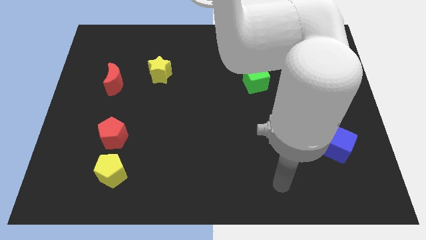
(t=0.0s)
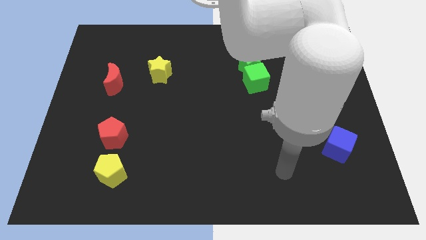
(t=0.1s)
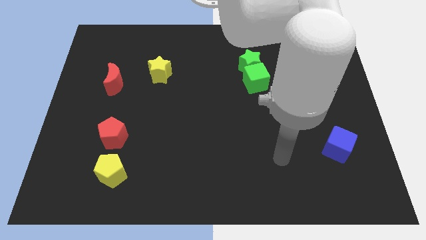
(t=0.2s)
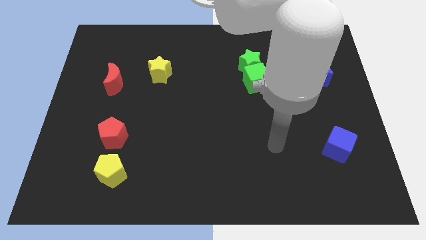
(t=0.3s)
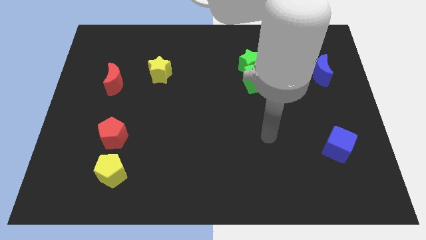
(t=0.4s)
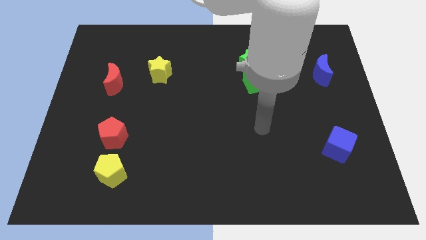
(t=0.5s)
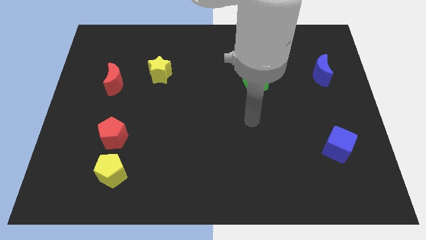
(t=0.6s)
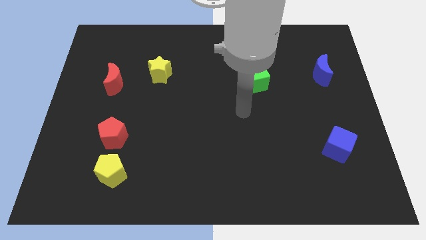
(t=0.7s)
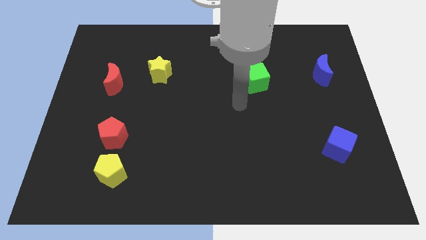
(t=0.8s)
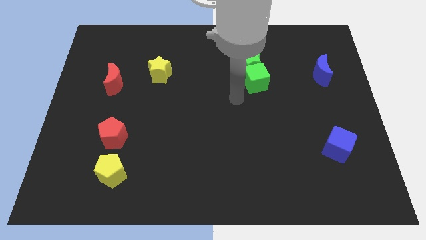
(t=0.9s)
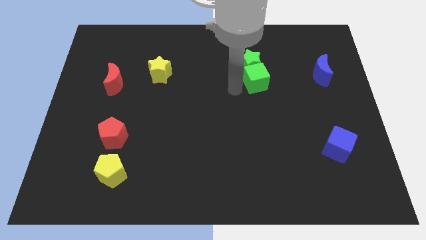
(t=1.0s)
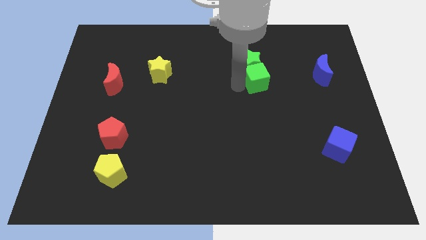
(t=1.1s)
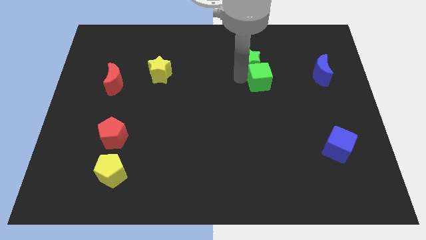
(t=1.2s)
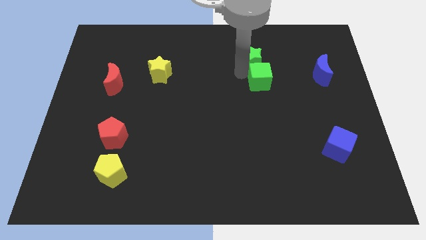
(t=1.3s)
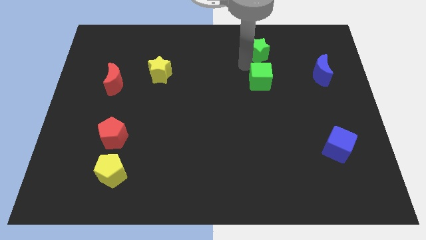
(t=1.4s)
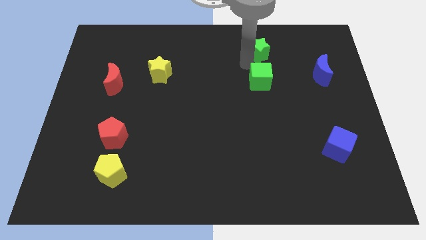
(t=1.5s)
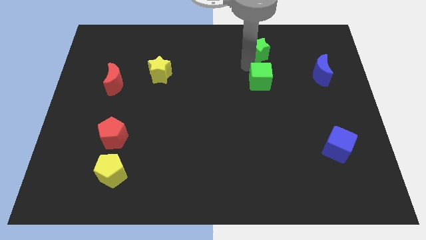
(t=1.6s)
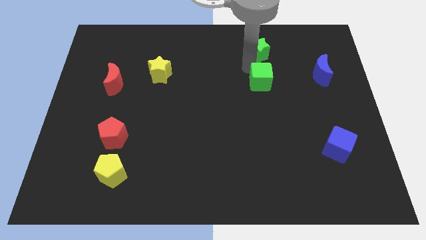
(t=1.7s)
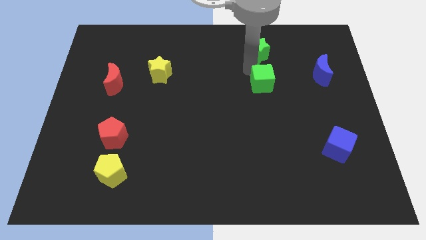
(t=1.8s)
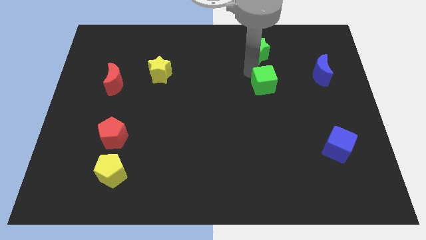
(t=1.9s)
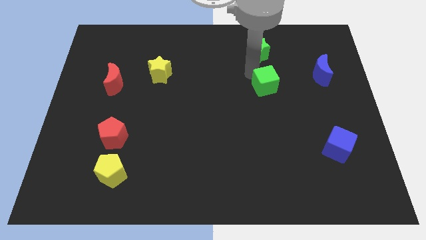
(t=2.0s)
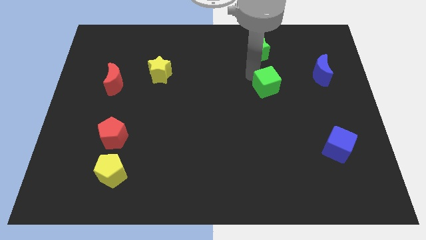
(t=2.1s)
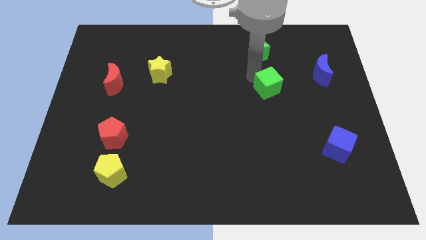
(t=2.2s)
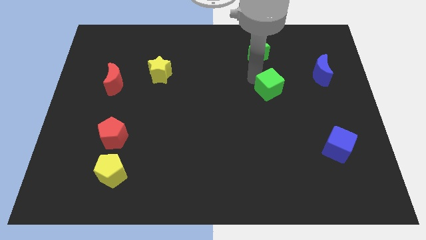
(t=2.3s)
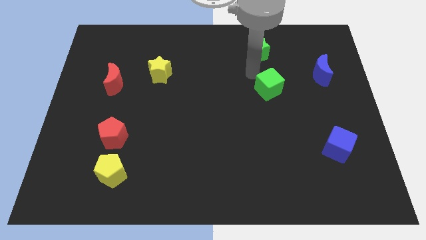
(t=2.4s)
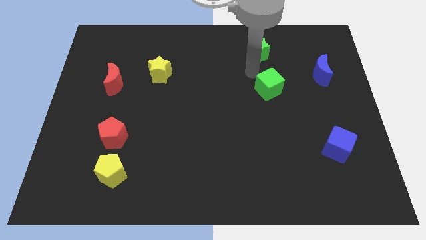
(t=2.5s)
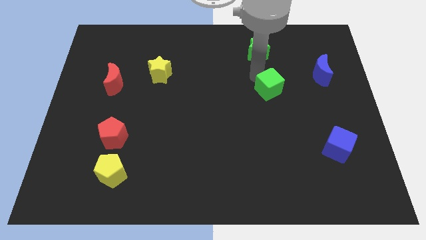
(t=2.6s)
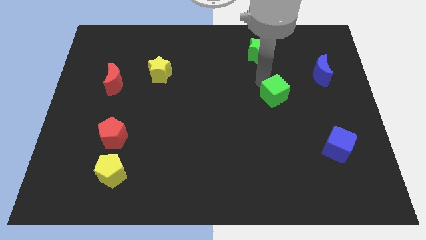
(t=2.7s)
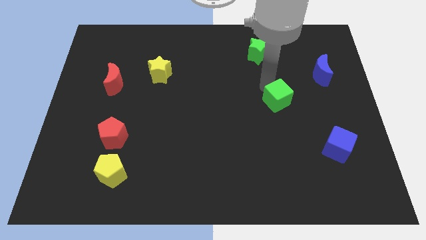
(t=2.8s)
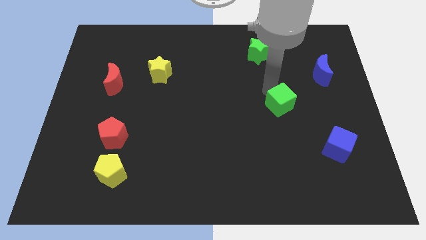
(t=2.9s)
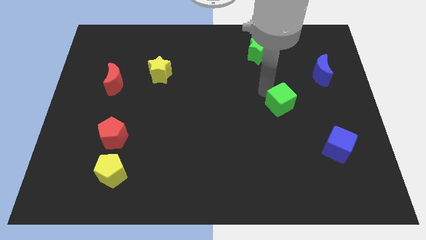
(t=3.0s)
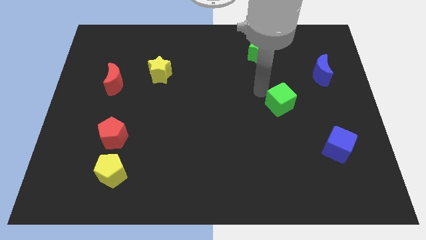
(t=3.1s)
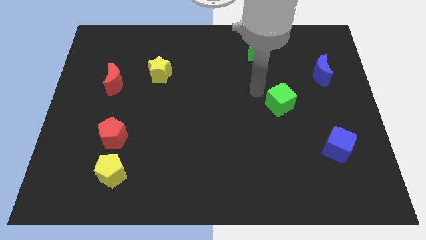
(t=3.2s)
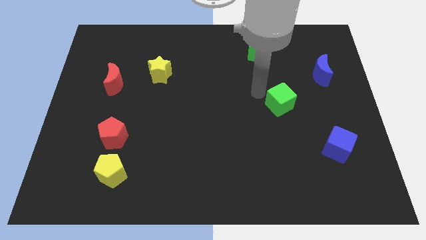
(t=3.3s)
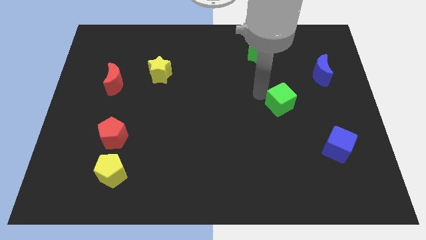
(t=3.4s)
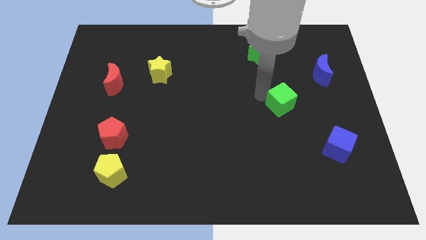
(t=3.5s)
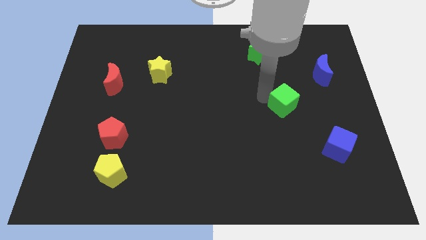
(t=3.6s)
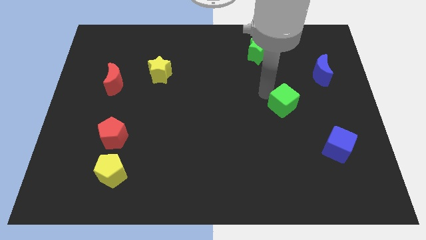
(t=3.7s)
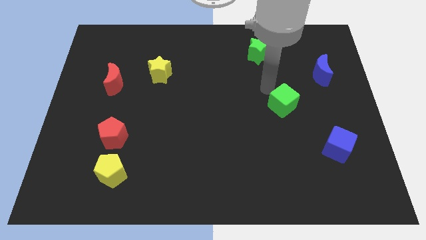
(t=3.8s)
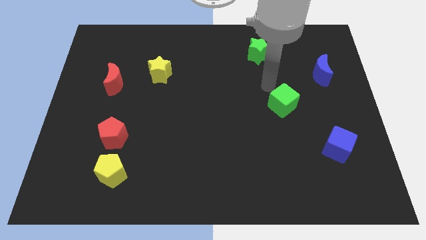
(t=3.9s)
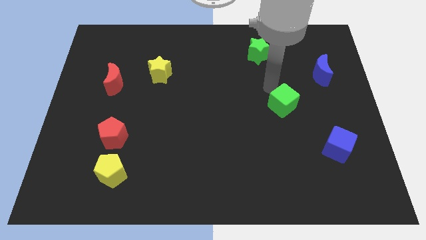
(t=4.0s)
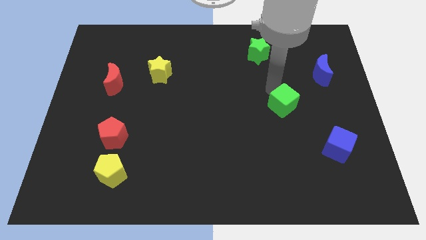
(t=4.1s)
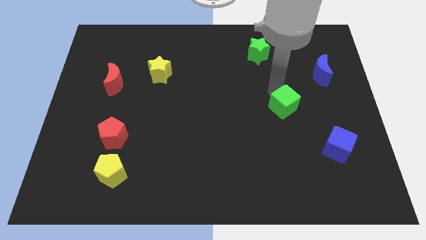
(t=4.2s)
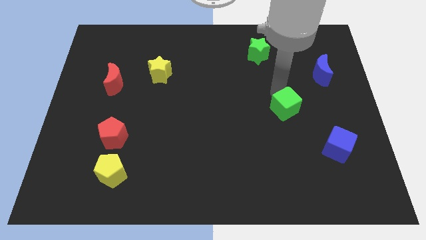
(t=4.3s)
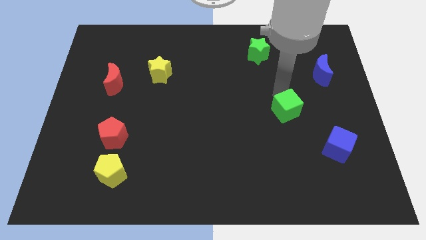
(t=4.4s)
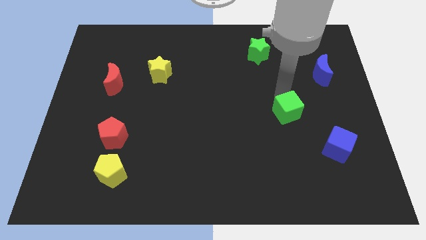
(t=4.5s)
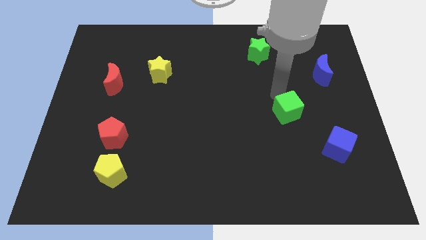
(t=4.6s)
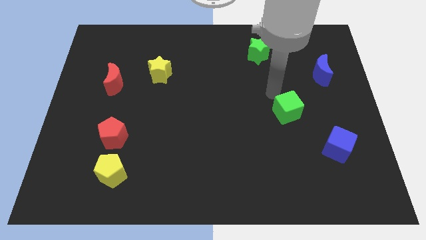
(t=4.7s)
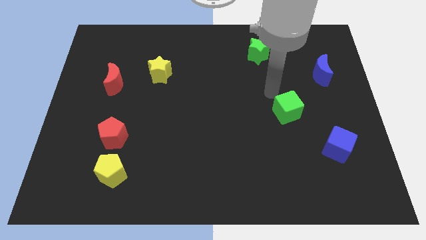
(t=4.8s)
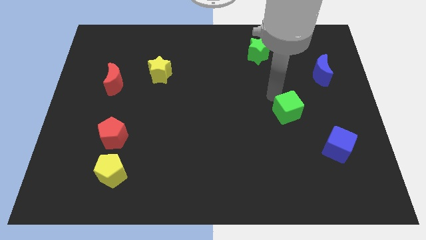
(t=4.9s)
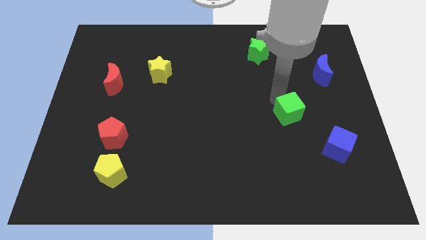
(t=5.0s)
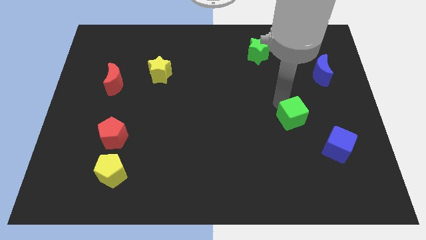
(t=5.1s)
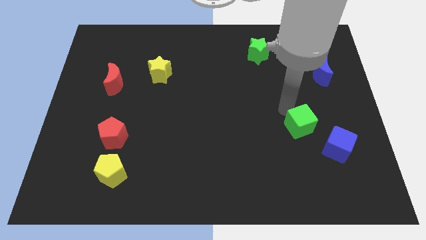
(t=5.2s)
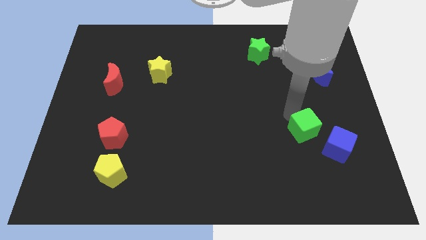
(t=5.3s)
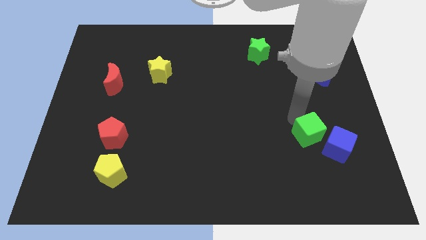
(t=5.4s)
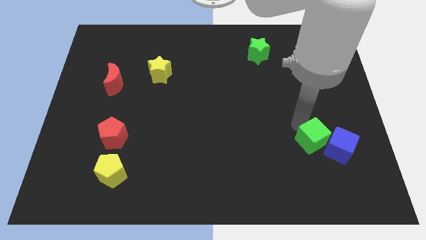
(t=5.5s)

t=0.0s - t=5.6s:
move the green cube close to the blue cube

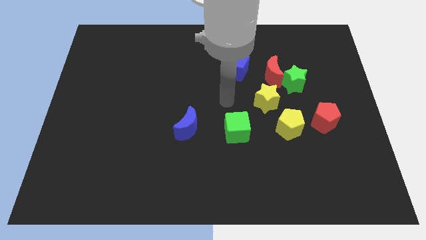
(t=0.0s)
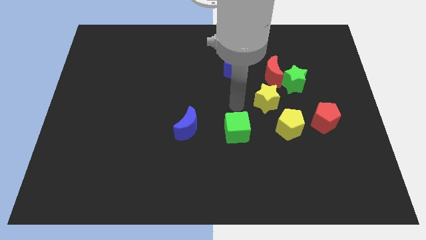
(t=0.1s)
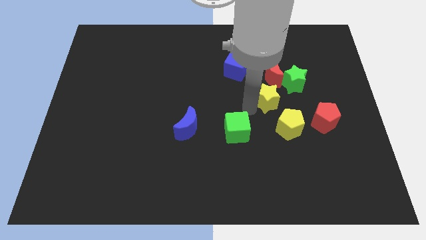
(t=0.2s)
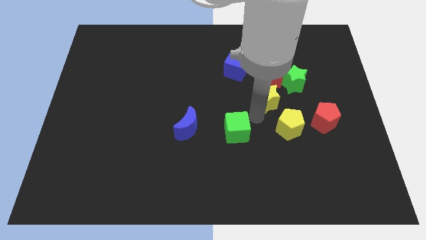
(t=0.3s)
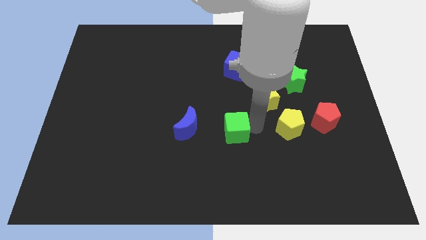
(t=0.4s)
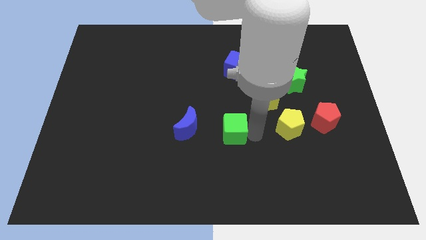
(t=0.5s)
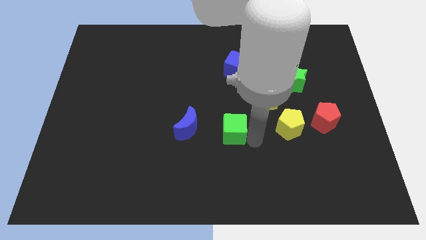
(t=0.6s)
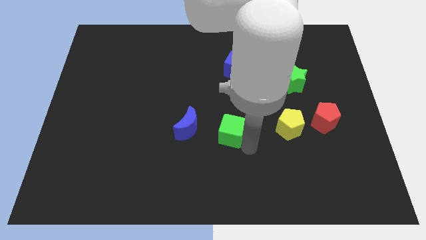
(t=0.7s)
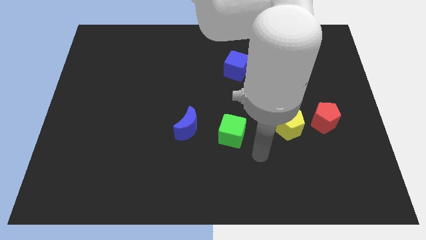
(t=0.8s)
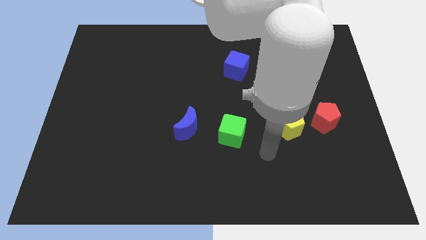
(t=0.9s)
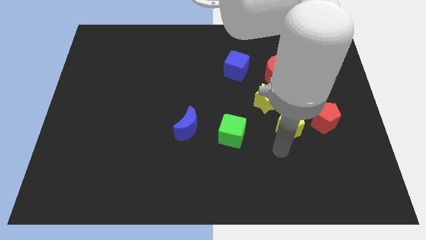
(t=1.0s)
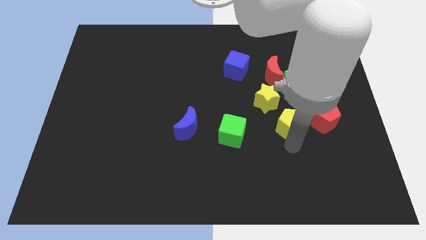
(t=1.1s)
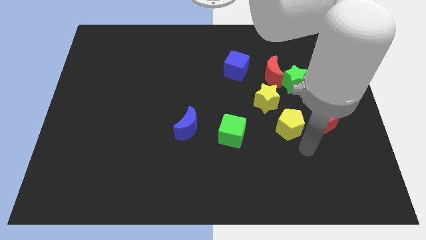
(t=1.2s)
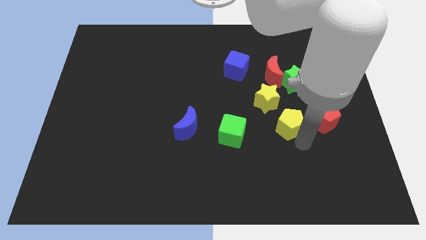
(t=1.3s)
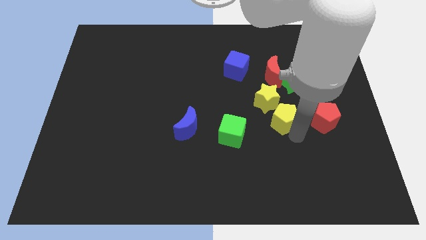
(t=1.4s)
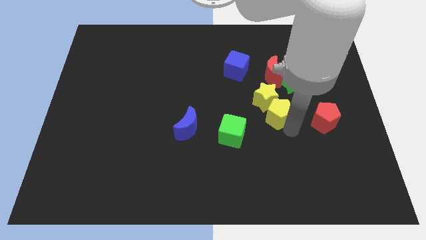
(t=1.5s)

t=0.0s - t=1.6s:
push the yellow pentagon towards the yellow star

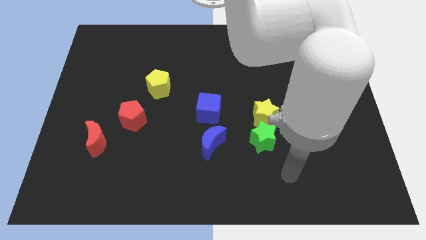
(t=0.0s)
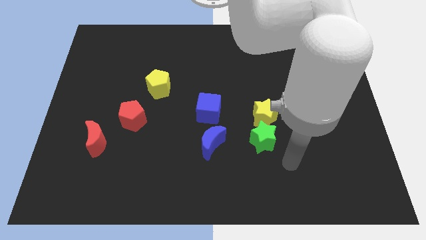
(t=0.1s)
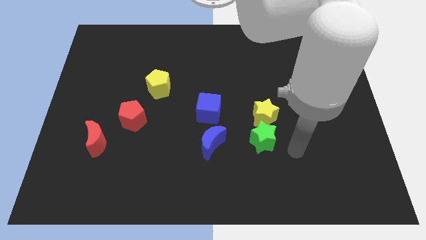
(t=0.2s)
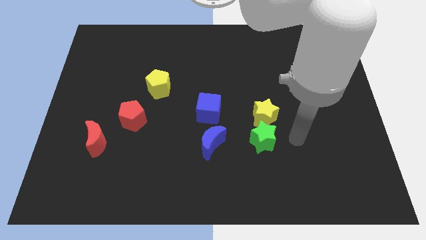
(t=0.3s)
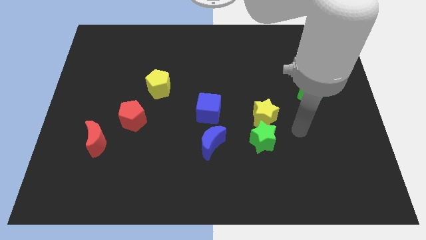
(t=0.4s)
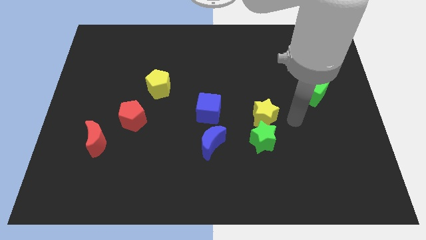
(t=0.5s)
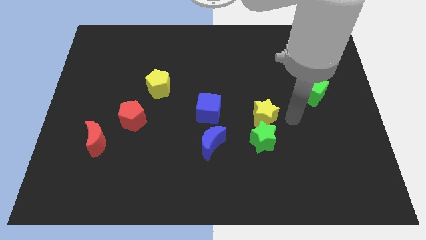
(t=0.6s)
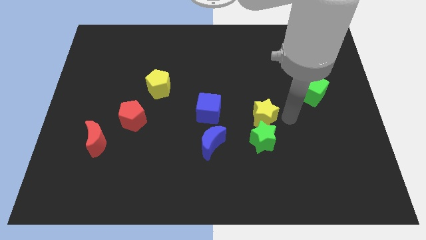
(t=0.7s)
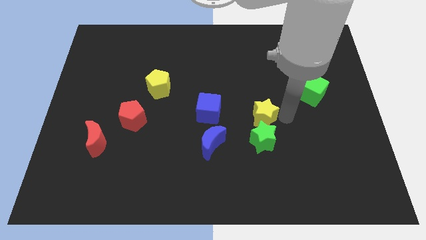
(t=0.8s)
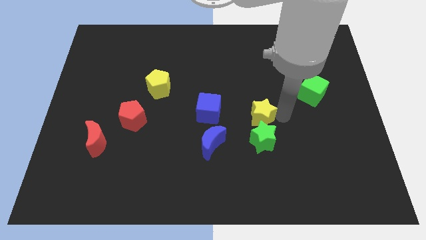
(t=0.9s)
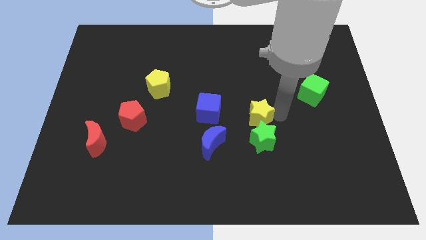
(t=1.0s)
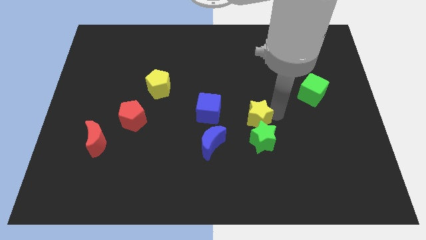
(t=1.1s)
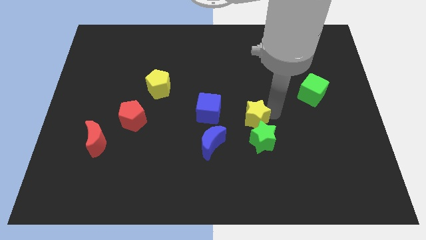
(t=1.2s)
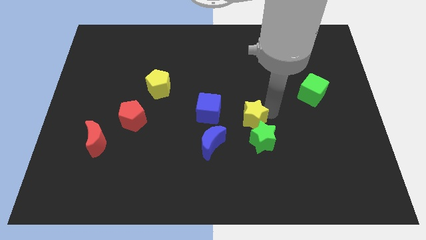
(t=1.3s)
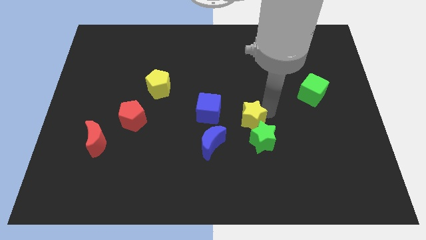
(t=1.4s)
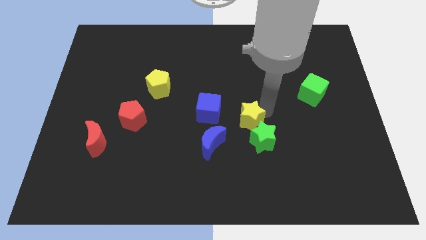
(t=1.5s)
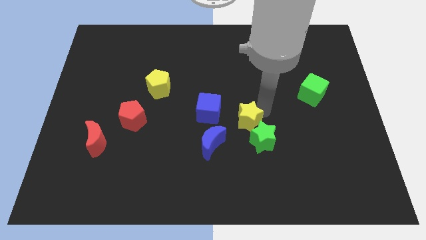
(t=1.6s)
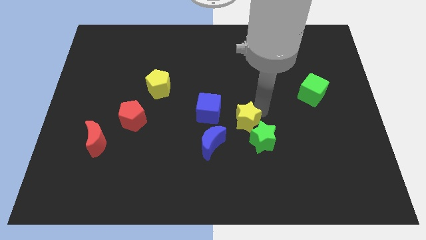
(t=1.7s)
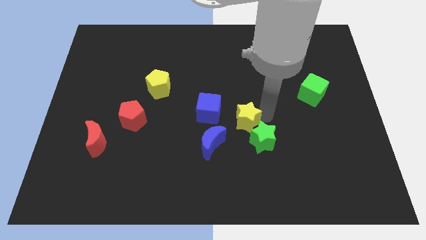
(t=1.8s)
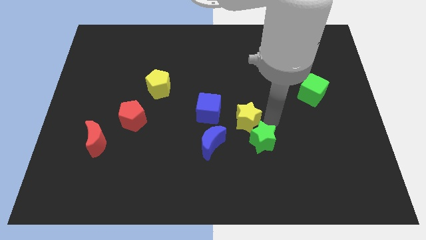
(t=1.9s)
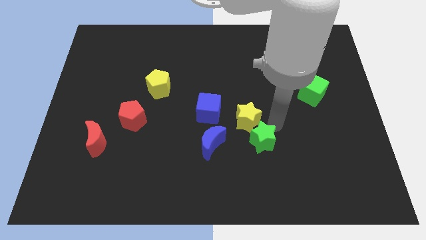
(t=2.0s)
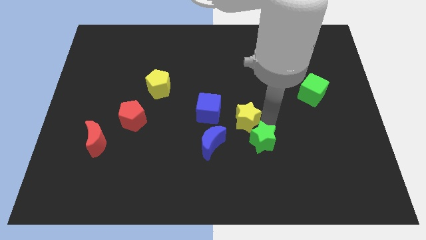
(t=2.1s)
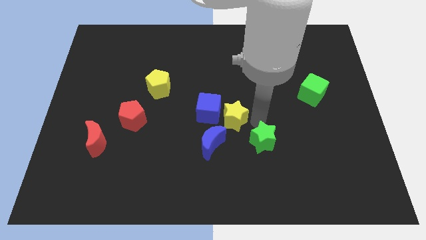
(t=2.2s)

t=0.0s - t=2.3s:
push the yellow star next to the blue cube
